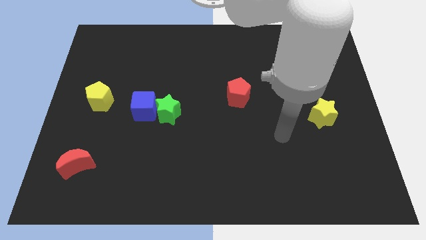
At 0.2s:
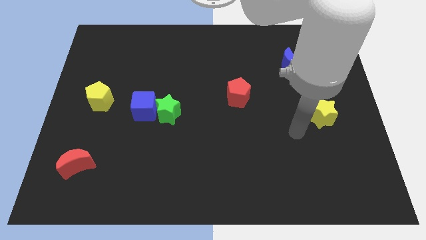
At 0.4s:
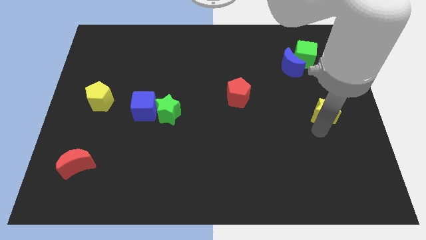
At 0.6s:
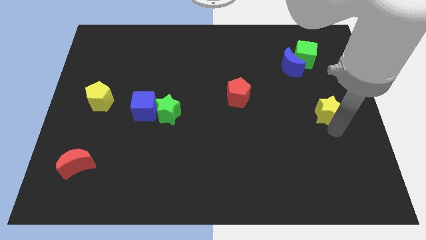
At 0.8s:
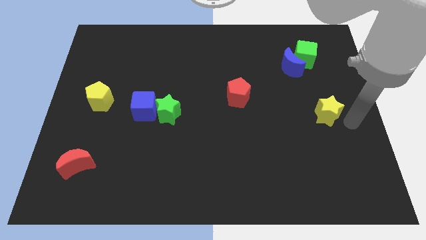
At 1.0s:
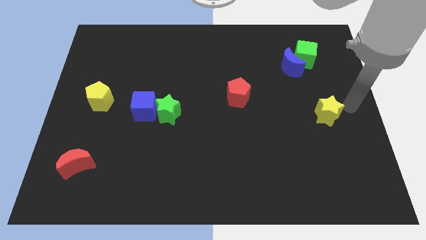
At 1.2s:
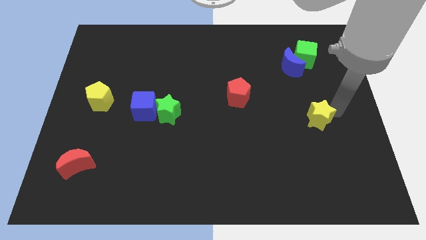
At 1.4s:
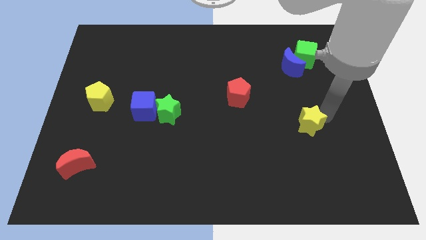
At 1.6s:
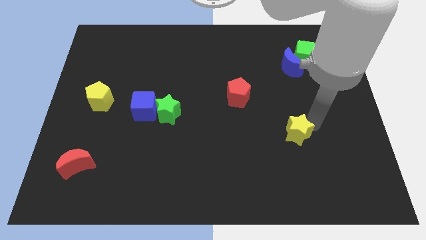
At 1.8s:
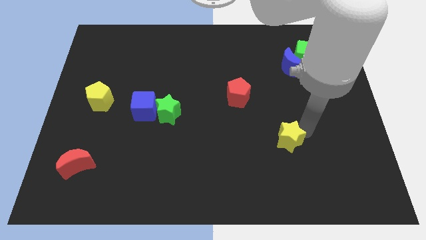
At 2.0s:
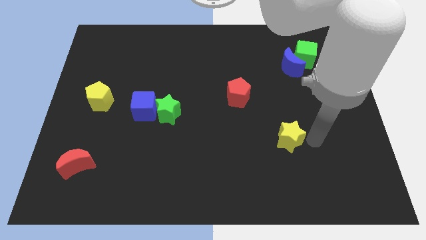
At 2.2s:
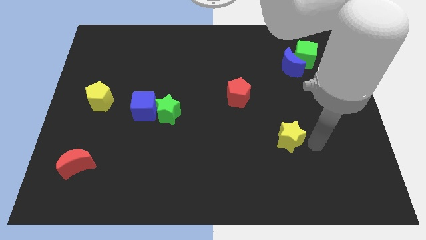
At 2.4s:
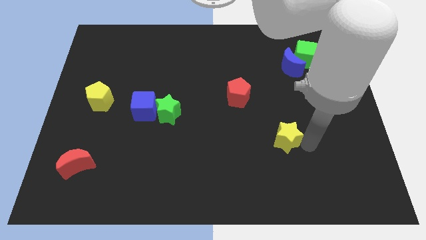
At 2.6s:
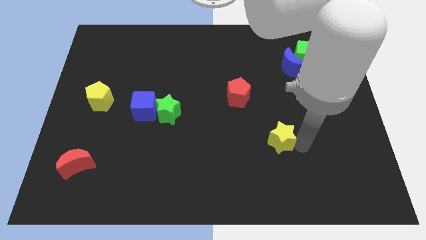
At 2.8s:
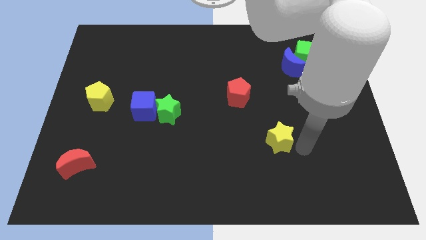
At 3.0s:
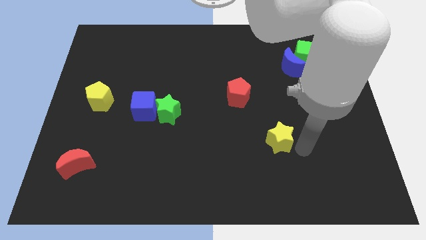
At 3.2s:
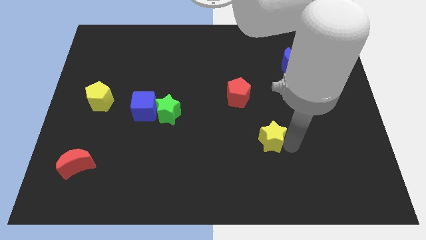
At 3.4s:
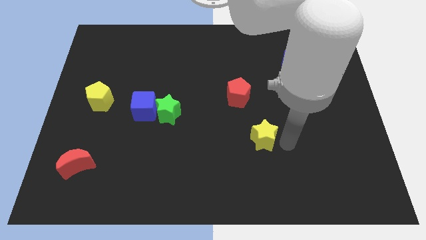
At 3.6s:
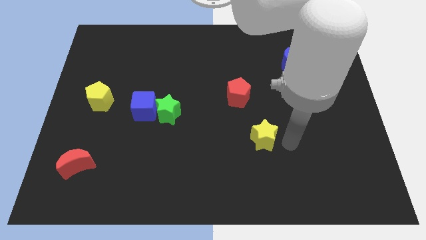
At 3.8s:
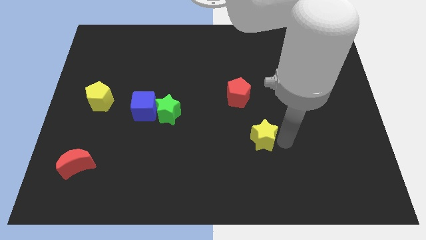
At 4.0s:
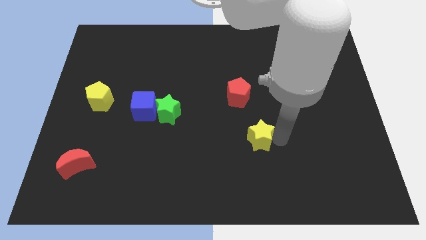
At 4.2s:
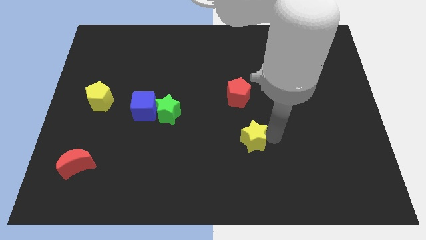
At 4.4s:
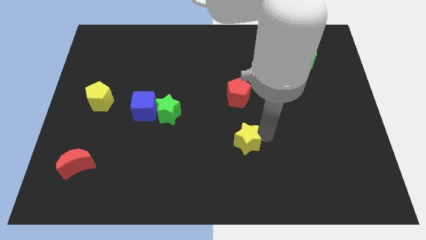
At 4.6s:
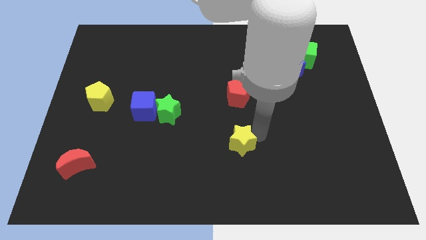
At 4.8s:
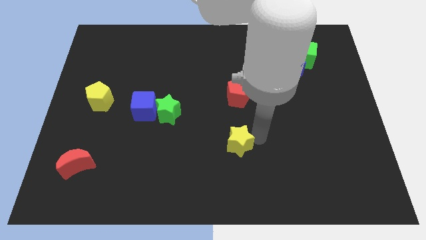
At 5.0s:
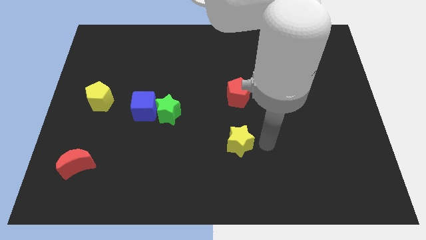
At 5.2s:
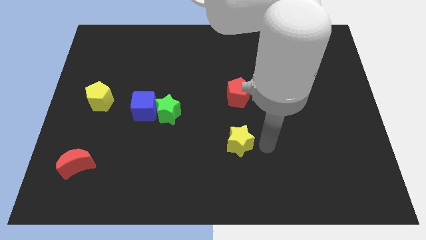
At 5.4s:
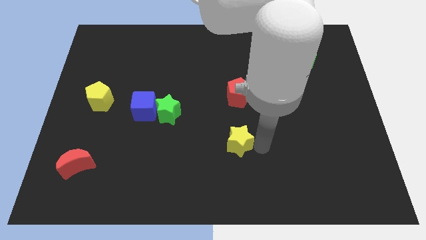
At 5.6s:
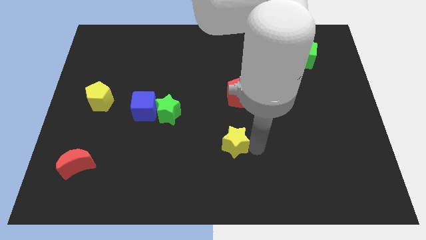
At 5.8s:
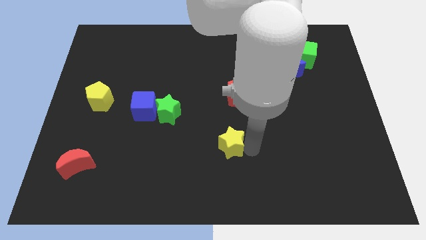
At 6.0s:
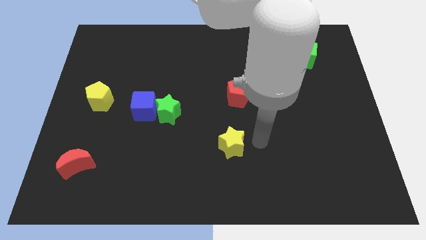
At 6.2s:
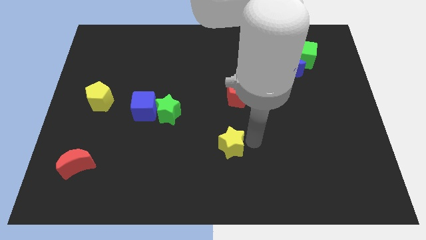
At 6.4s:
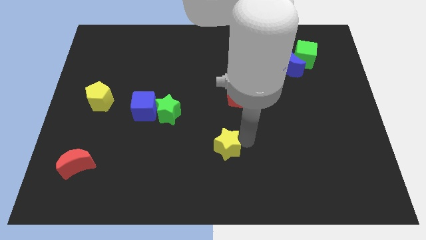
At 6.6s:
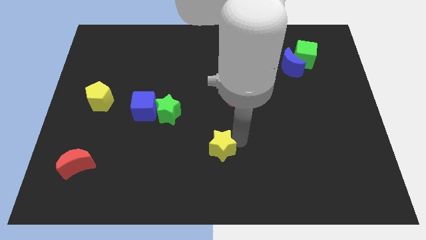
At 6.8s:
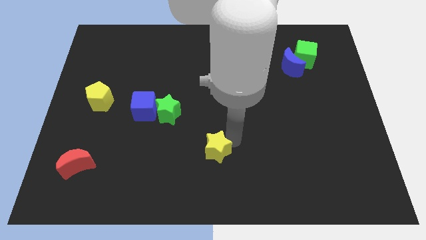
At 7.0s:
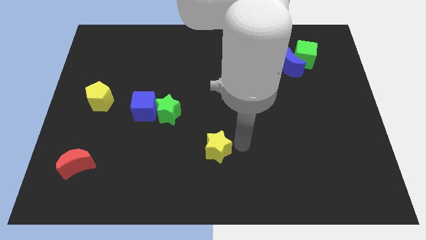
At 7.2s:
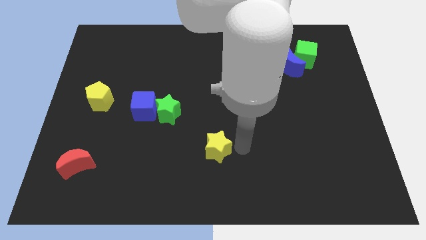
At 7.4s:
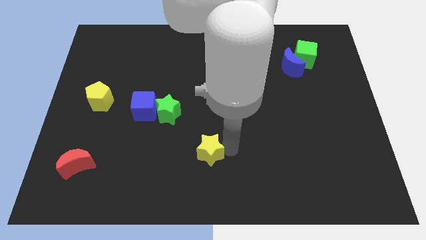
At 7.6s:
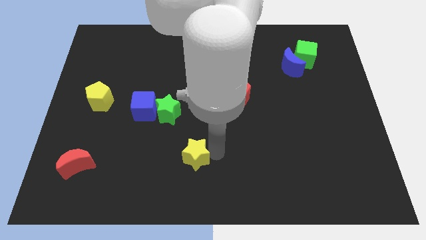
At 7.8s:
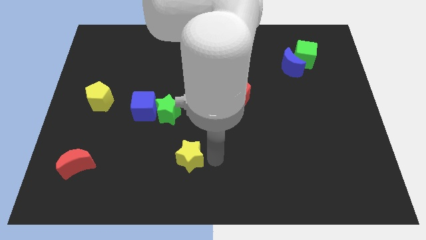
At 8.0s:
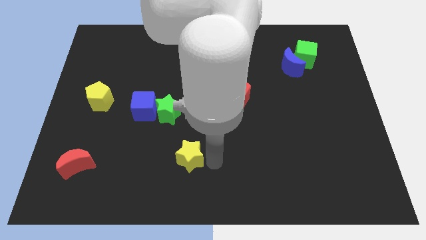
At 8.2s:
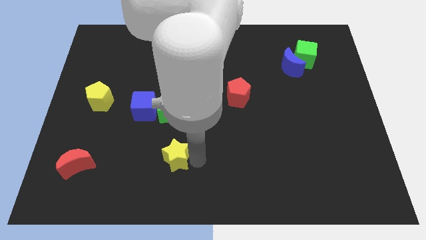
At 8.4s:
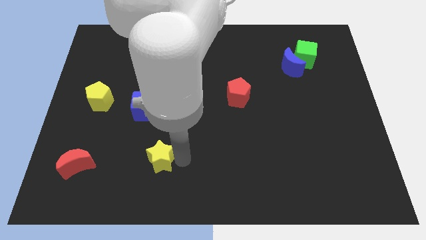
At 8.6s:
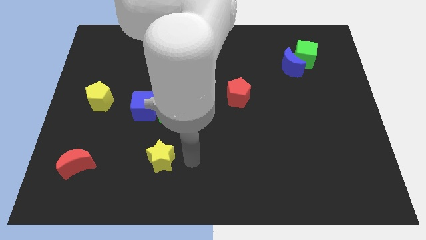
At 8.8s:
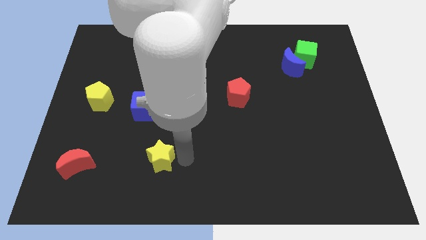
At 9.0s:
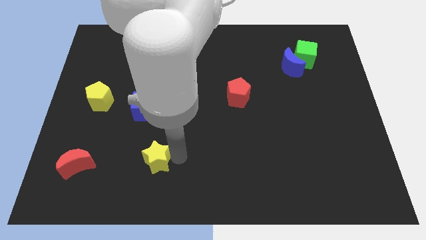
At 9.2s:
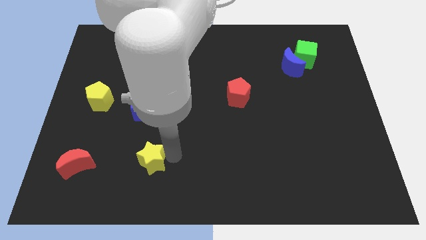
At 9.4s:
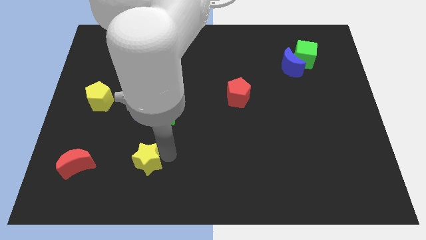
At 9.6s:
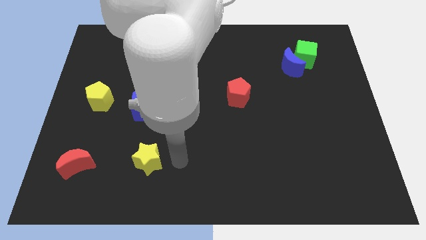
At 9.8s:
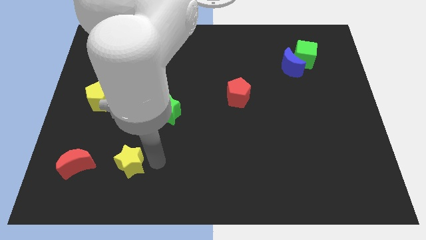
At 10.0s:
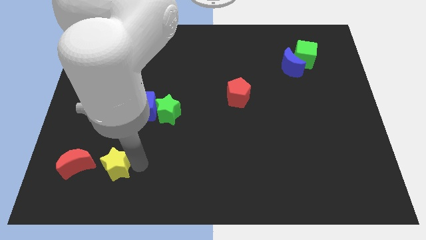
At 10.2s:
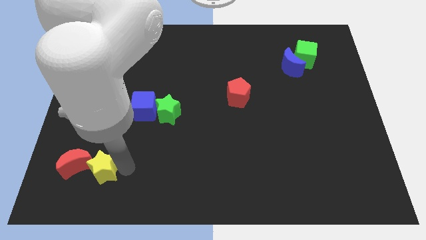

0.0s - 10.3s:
put the yellow star next to the red moon

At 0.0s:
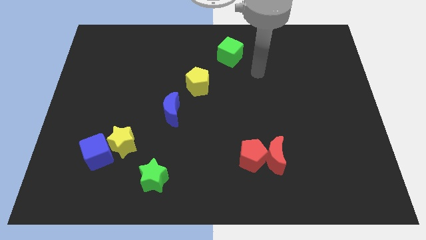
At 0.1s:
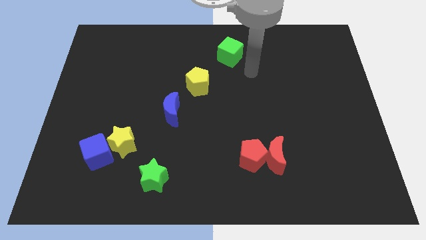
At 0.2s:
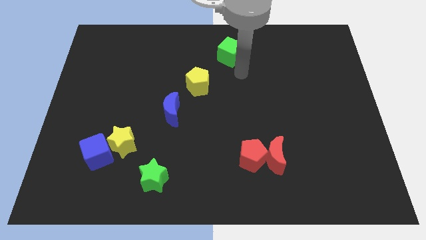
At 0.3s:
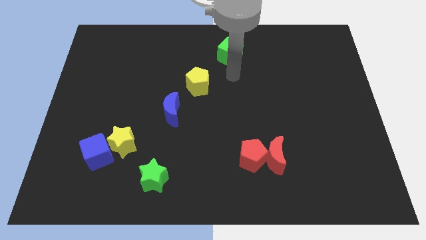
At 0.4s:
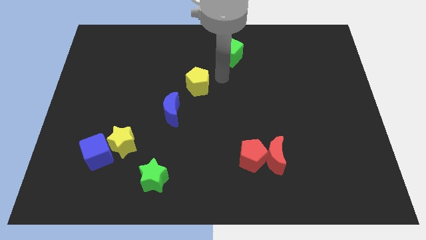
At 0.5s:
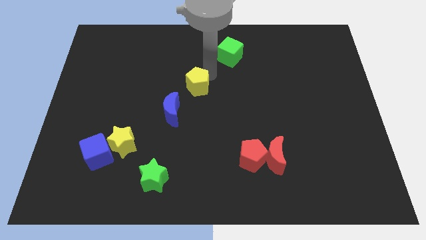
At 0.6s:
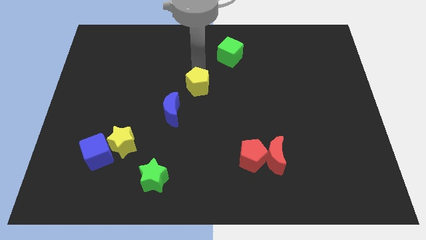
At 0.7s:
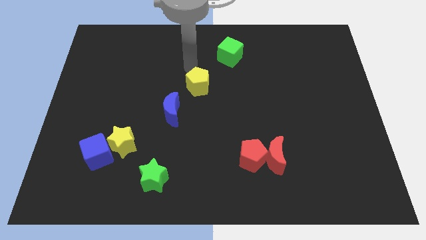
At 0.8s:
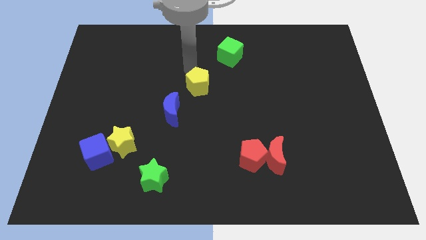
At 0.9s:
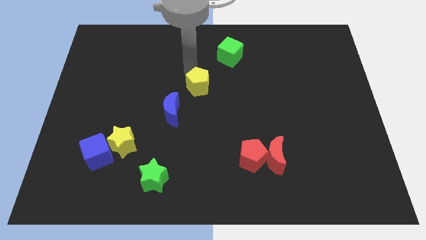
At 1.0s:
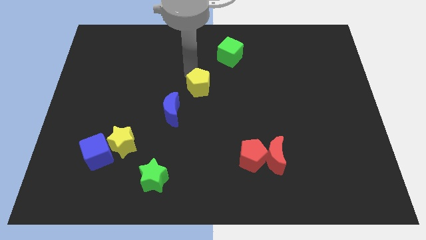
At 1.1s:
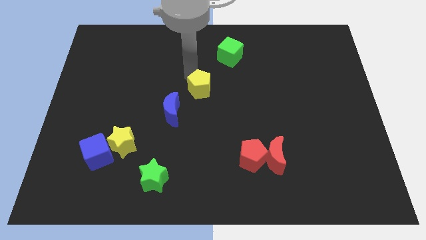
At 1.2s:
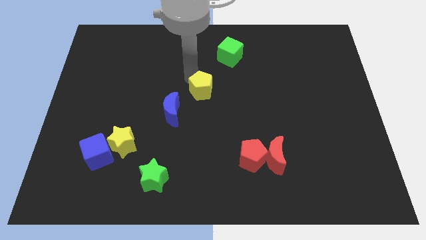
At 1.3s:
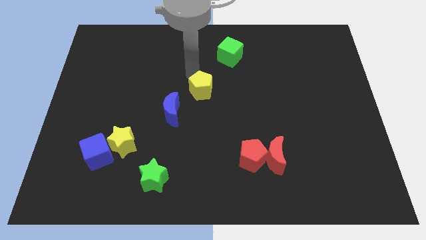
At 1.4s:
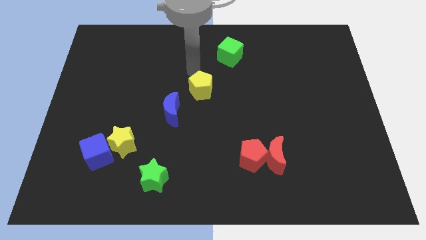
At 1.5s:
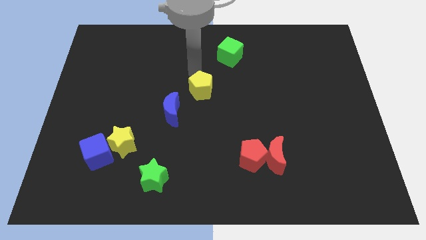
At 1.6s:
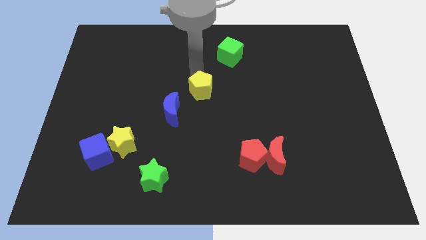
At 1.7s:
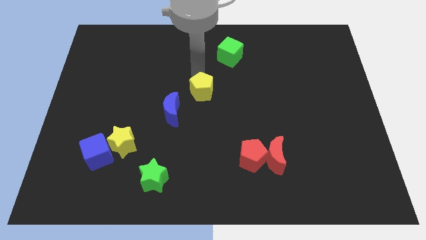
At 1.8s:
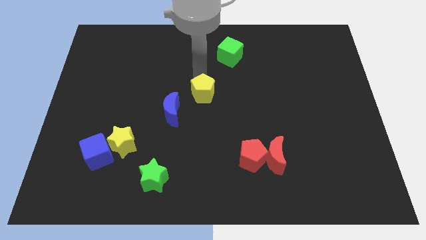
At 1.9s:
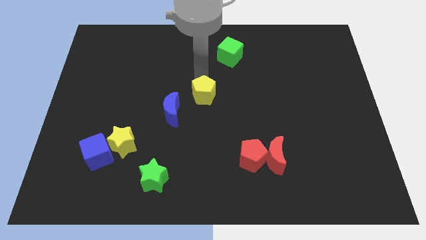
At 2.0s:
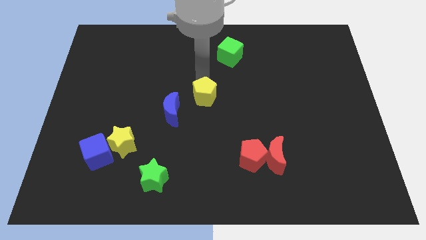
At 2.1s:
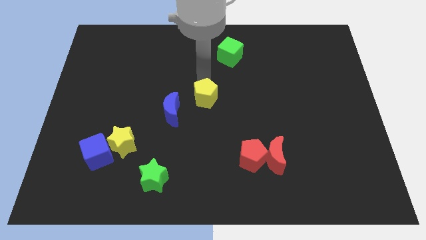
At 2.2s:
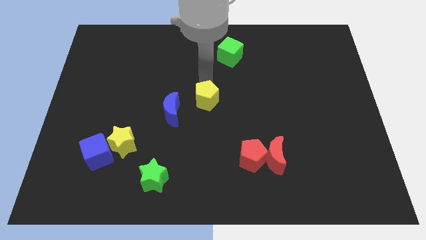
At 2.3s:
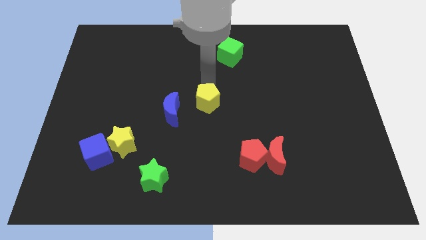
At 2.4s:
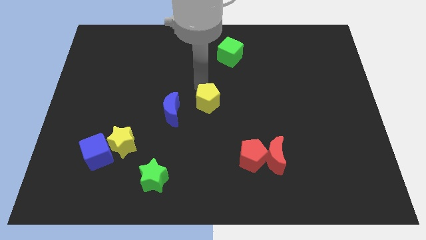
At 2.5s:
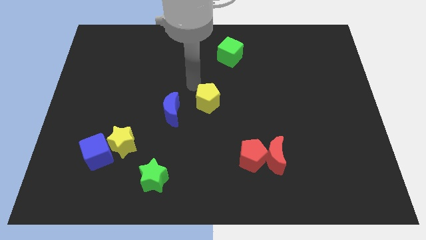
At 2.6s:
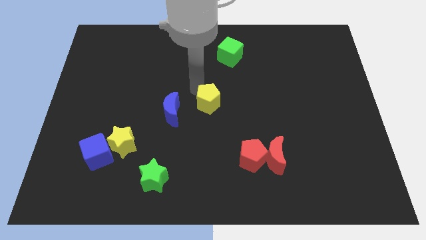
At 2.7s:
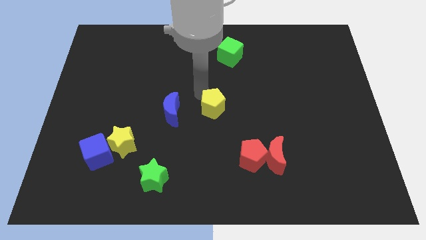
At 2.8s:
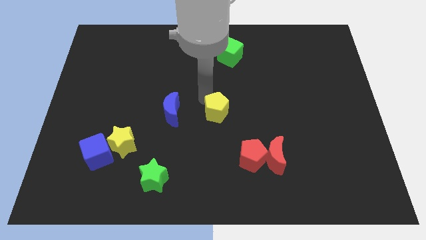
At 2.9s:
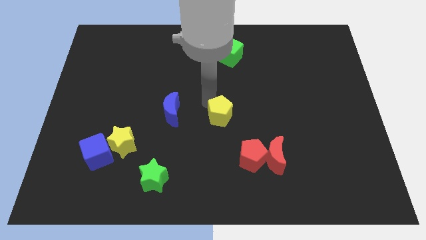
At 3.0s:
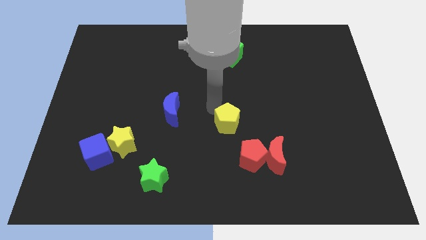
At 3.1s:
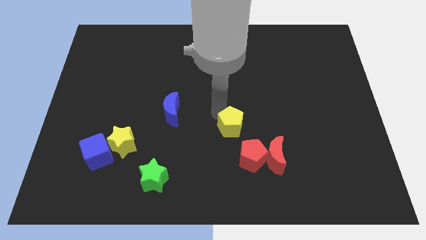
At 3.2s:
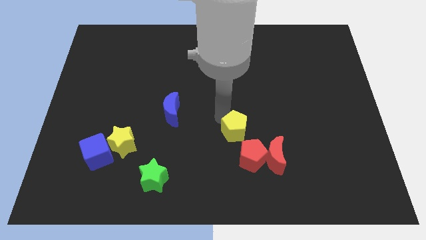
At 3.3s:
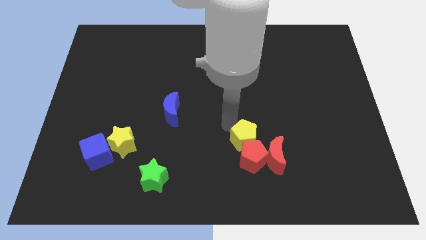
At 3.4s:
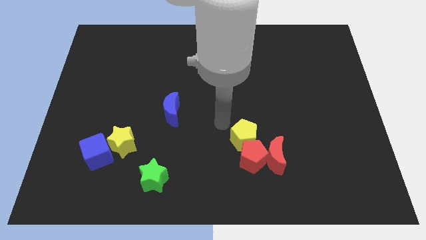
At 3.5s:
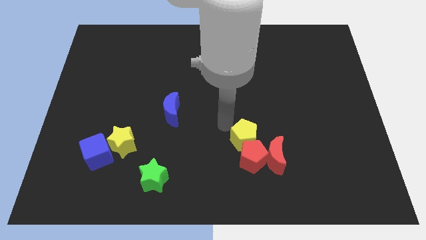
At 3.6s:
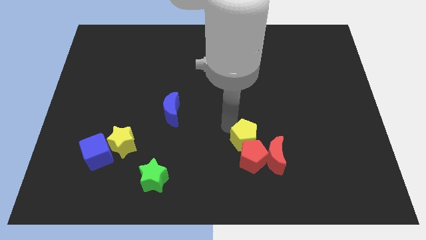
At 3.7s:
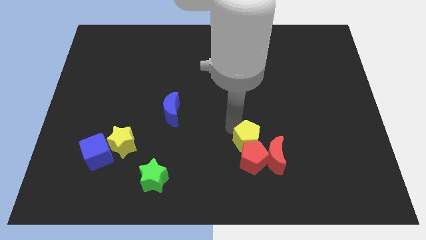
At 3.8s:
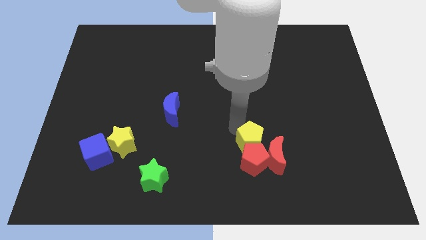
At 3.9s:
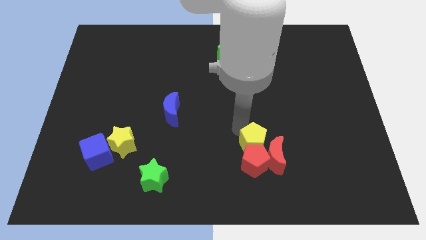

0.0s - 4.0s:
push the yellow pentagon towards the red moon
